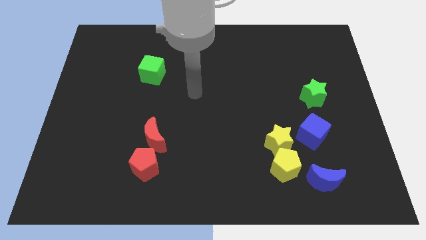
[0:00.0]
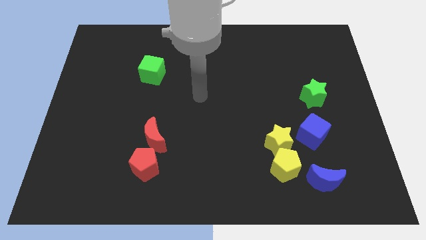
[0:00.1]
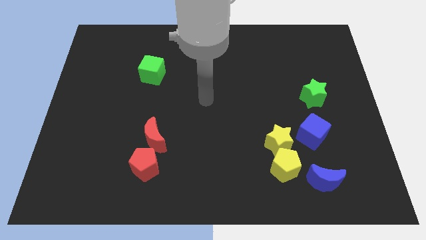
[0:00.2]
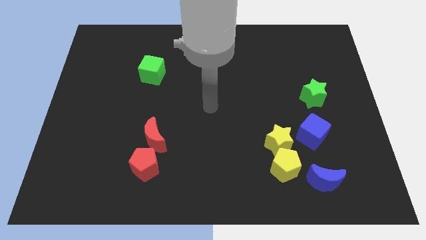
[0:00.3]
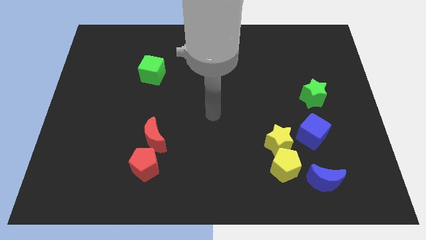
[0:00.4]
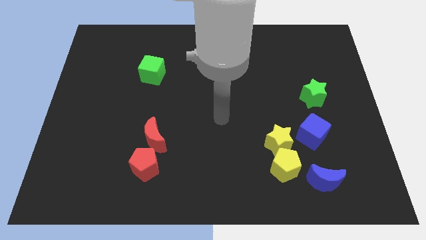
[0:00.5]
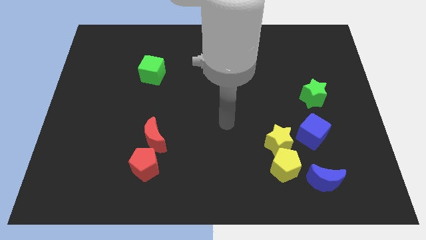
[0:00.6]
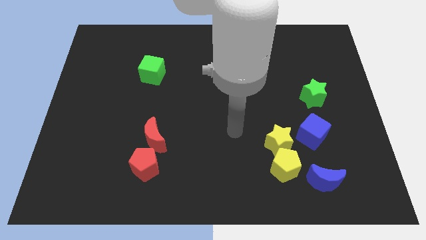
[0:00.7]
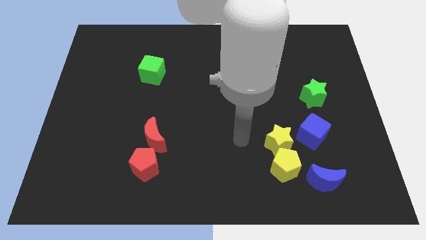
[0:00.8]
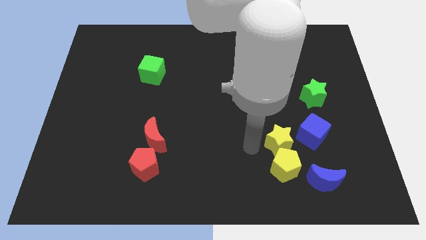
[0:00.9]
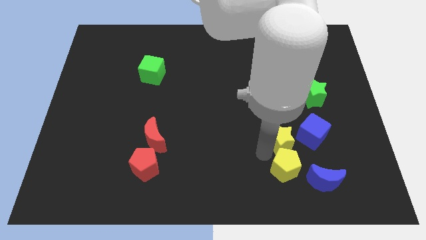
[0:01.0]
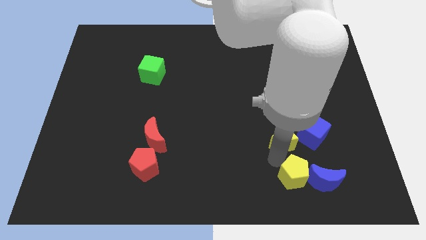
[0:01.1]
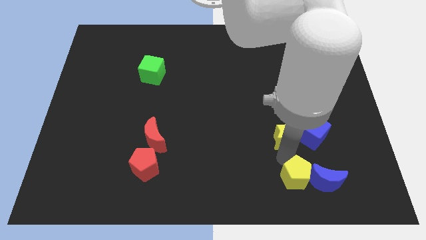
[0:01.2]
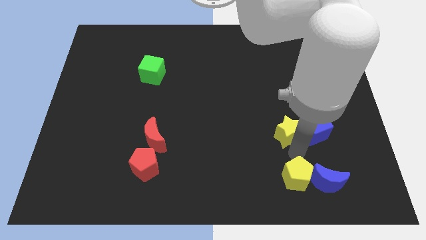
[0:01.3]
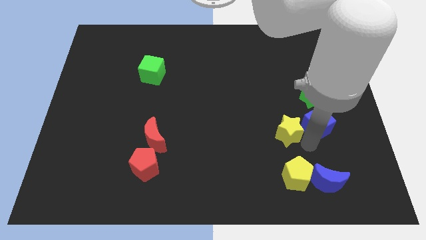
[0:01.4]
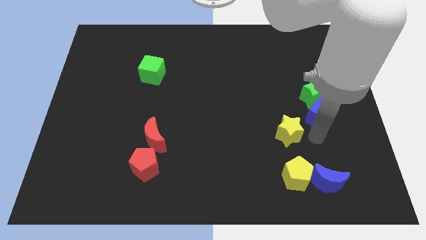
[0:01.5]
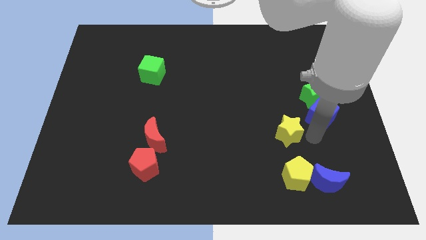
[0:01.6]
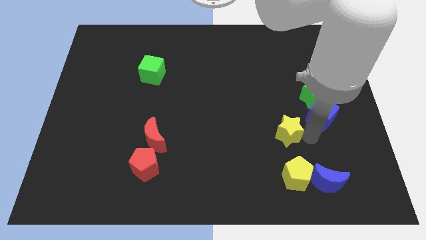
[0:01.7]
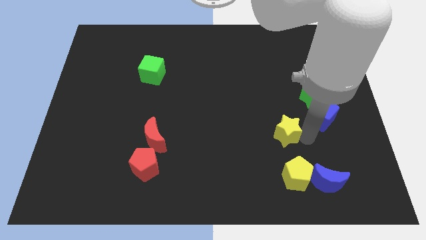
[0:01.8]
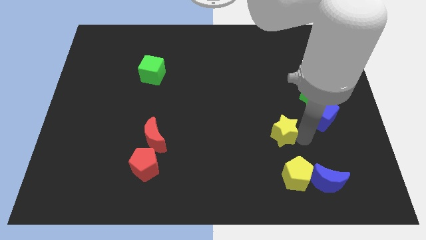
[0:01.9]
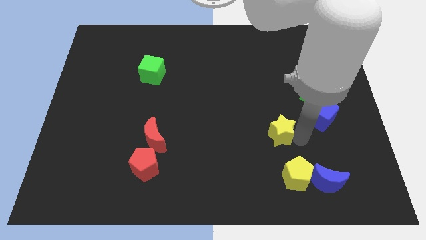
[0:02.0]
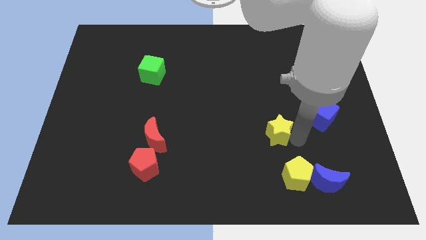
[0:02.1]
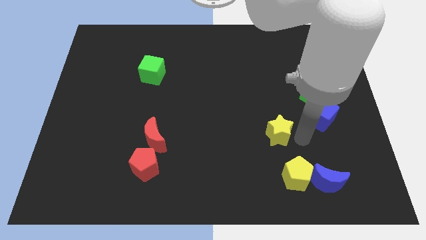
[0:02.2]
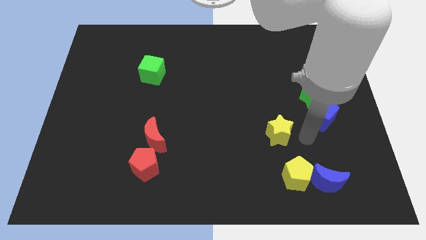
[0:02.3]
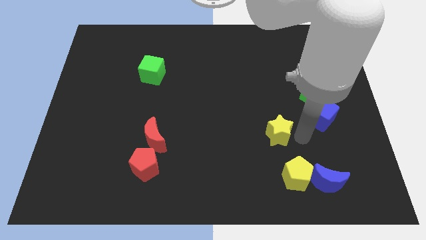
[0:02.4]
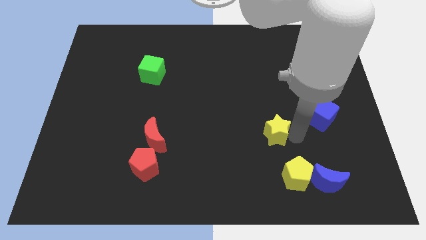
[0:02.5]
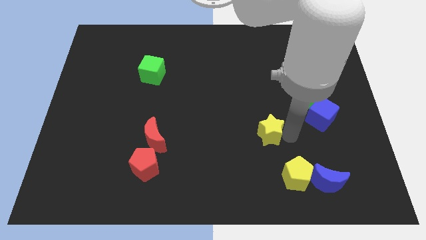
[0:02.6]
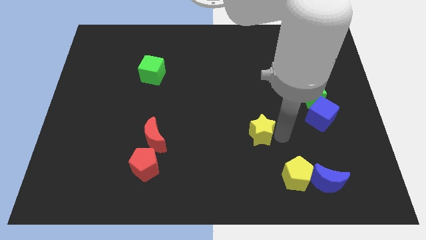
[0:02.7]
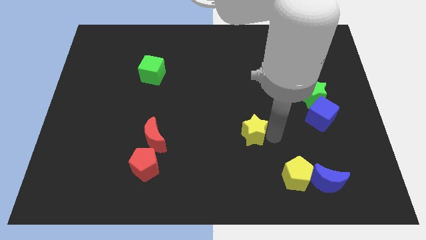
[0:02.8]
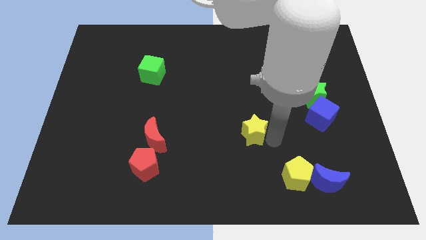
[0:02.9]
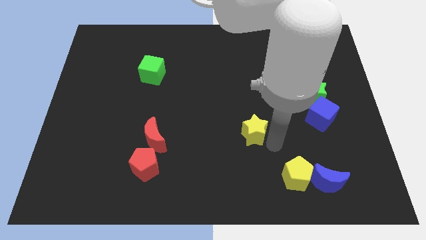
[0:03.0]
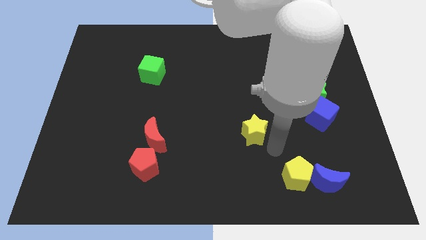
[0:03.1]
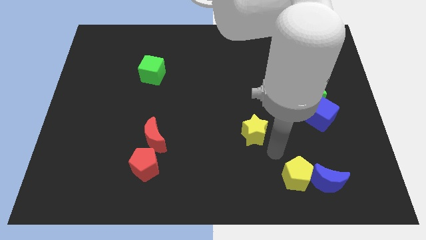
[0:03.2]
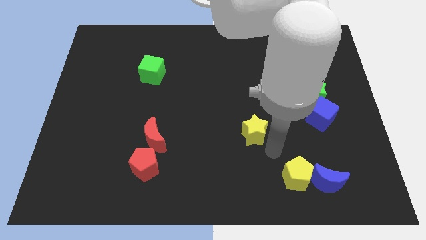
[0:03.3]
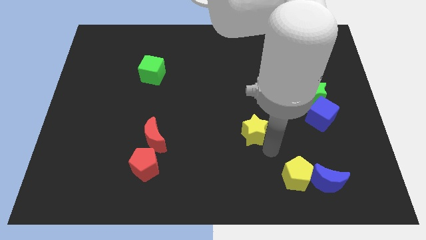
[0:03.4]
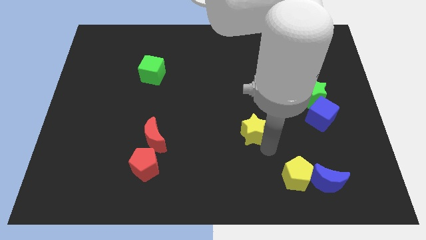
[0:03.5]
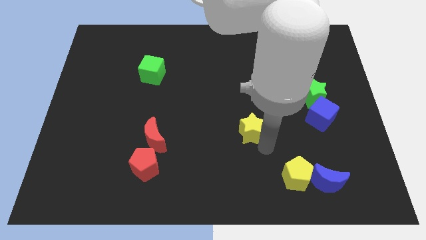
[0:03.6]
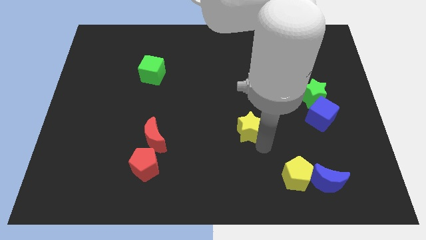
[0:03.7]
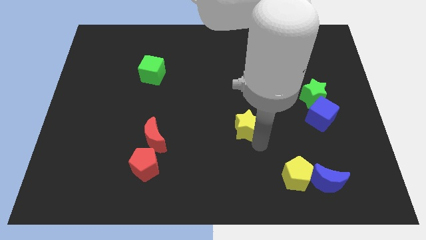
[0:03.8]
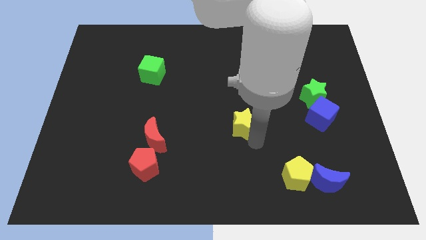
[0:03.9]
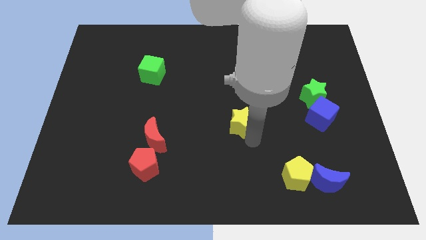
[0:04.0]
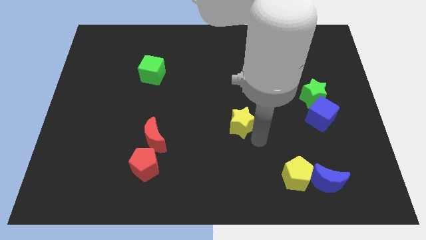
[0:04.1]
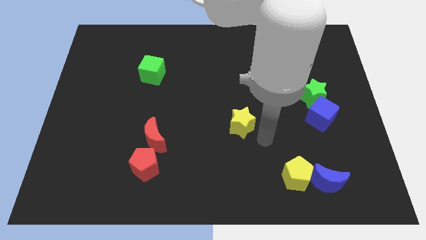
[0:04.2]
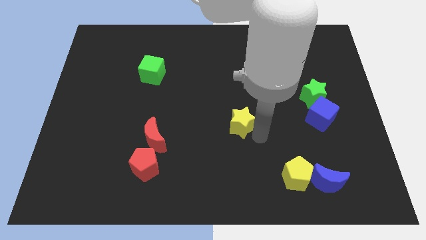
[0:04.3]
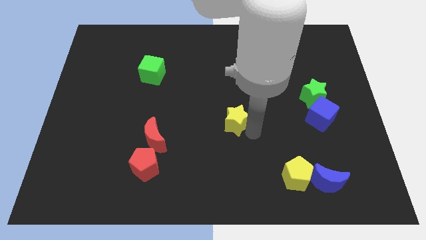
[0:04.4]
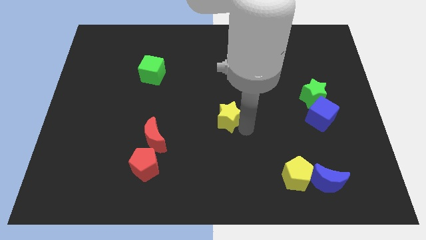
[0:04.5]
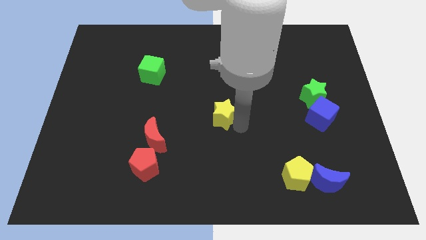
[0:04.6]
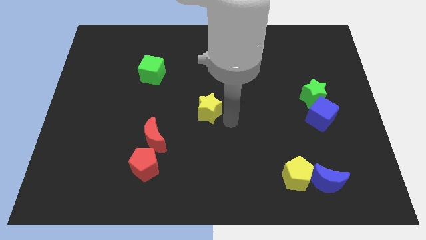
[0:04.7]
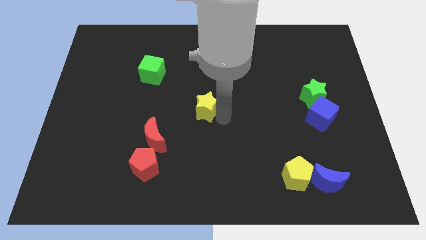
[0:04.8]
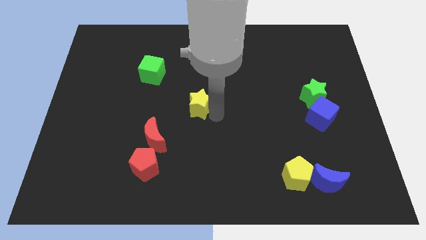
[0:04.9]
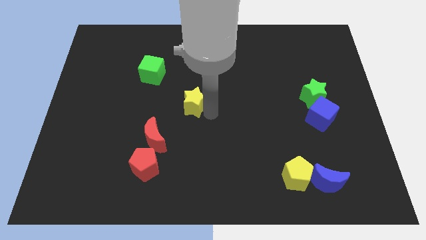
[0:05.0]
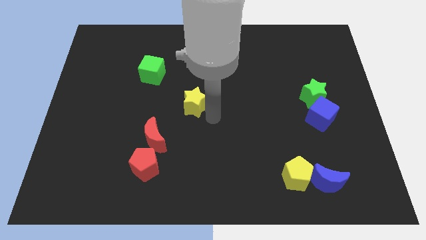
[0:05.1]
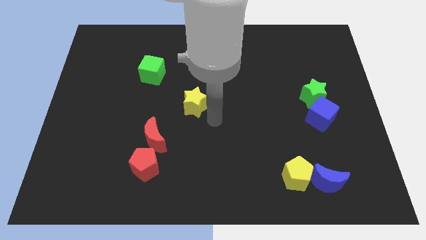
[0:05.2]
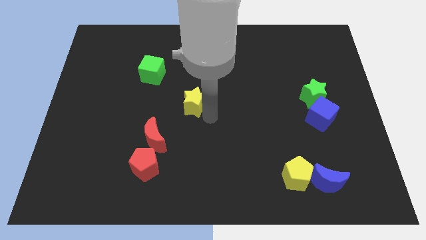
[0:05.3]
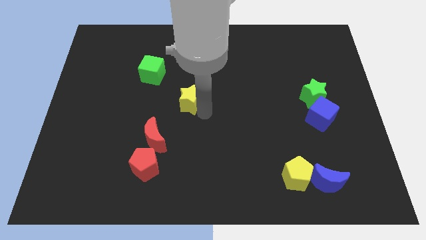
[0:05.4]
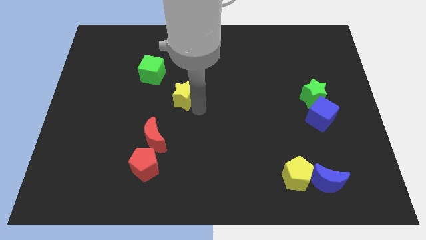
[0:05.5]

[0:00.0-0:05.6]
push the yellow star diagonally down and to the right of the green cube
